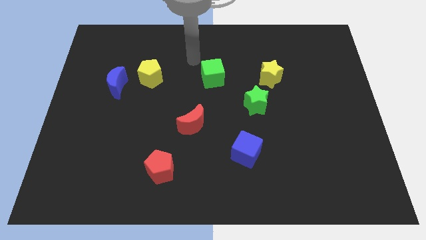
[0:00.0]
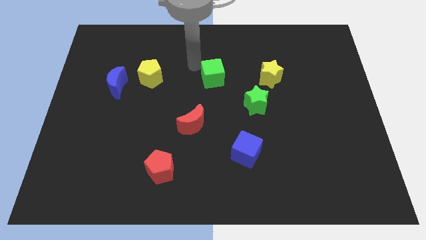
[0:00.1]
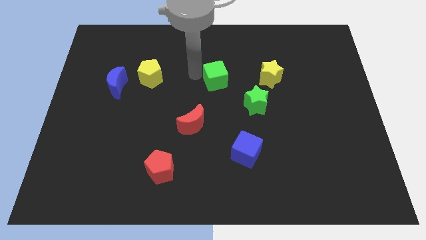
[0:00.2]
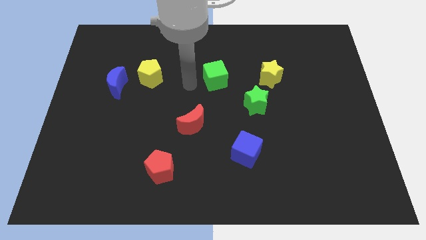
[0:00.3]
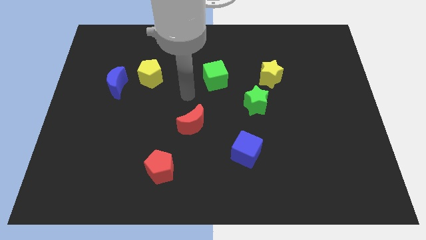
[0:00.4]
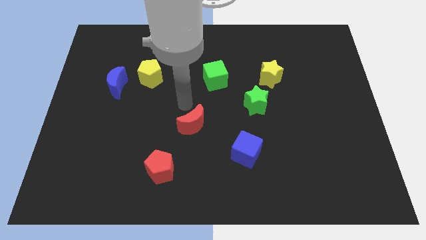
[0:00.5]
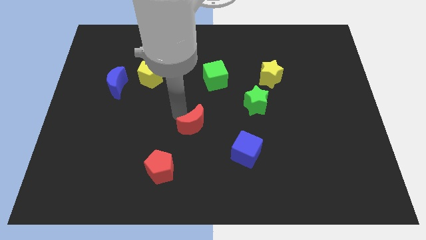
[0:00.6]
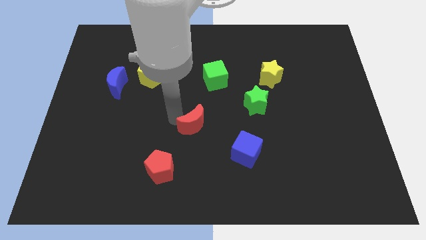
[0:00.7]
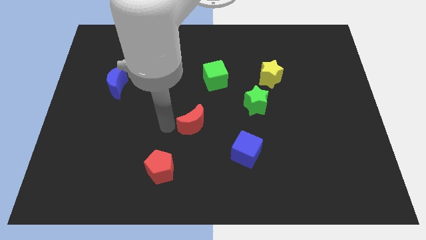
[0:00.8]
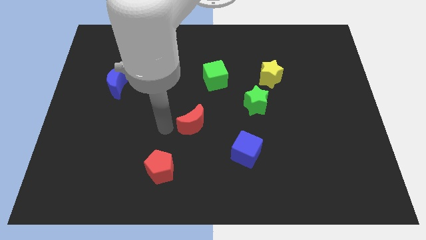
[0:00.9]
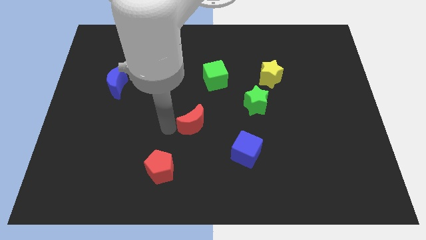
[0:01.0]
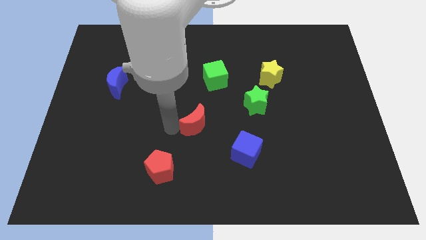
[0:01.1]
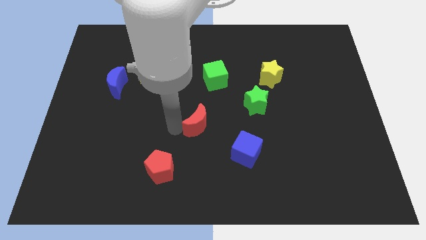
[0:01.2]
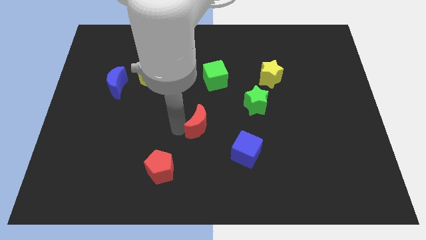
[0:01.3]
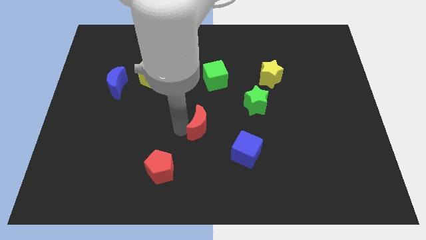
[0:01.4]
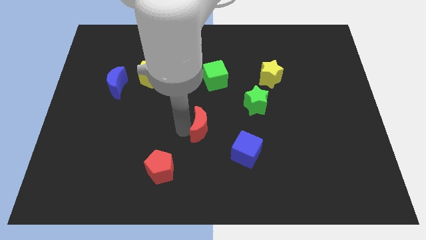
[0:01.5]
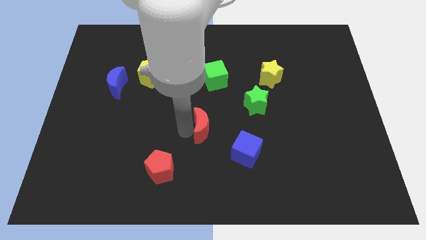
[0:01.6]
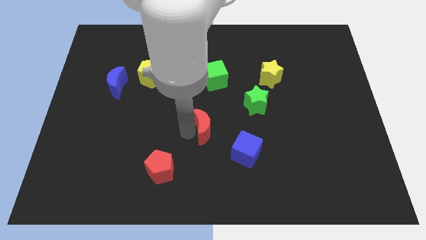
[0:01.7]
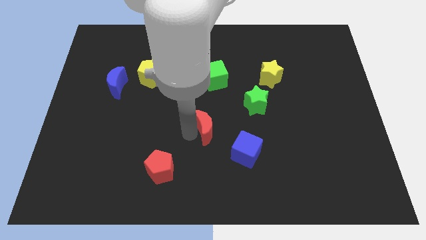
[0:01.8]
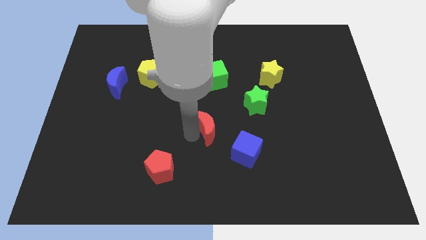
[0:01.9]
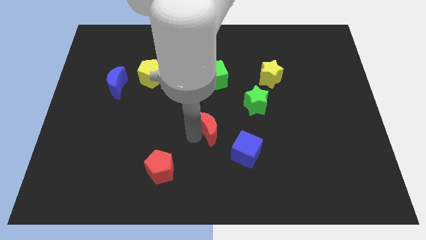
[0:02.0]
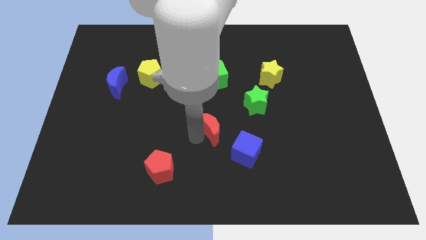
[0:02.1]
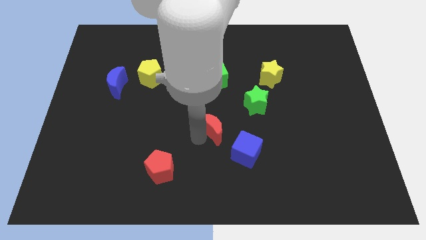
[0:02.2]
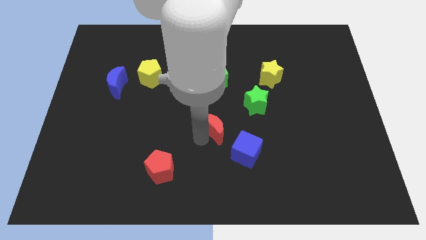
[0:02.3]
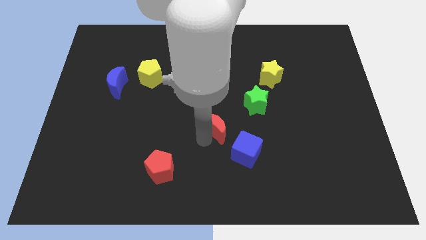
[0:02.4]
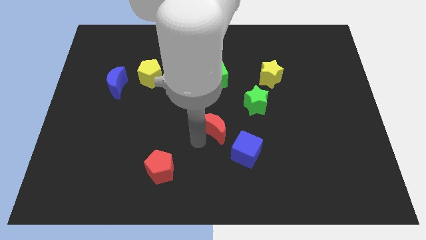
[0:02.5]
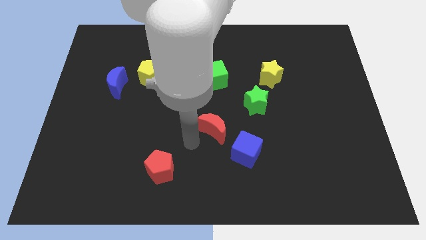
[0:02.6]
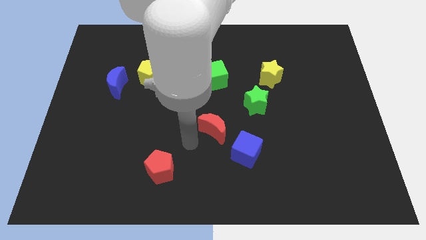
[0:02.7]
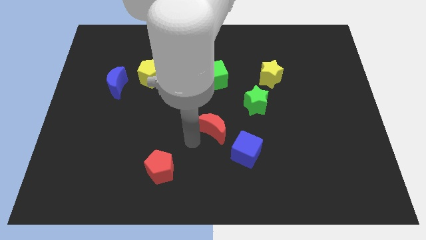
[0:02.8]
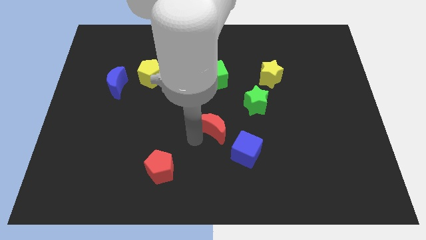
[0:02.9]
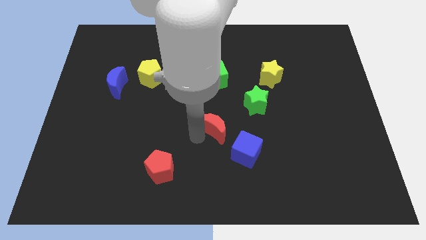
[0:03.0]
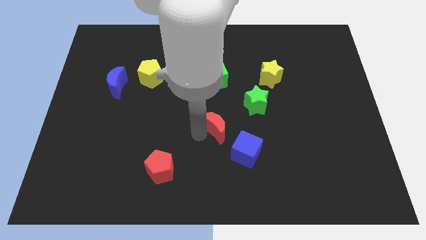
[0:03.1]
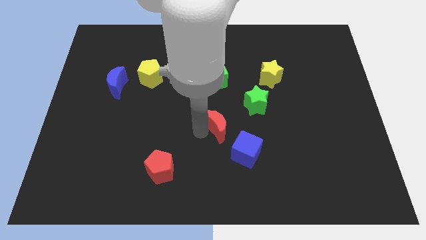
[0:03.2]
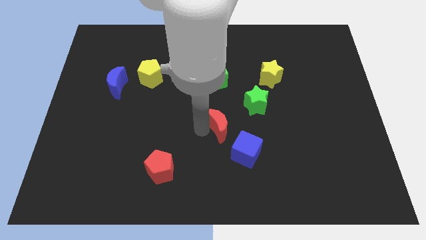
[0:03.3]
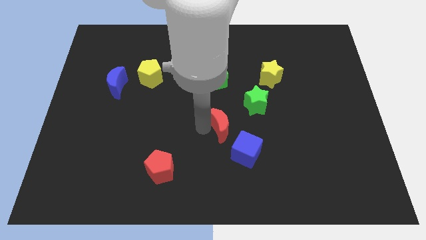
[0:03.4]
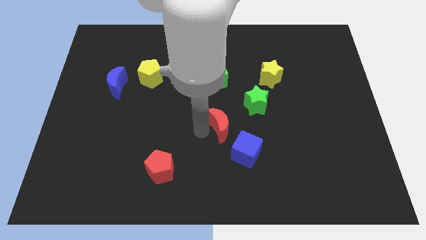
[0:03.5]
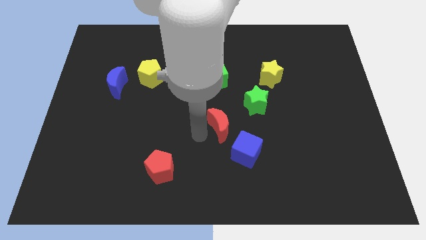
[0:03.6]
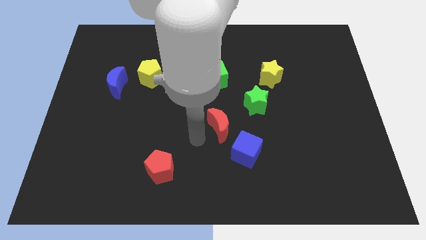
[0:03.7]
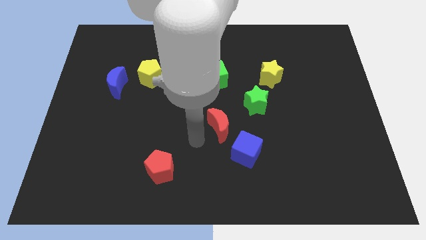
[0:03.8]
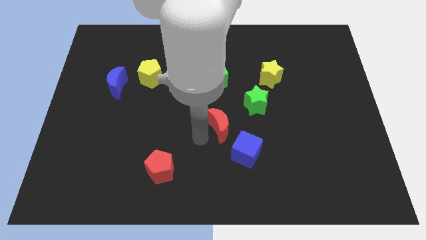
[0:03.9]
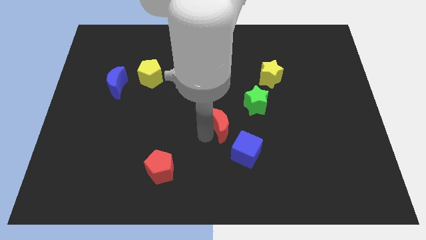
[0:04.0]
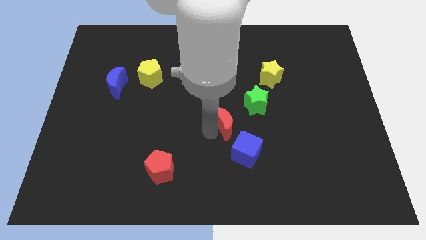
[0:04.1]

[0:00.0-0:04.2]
move the red moon a little bit to the right

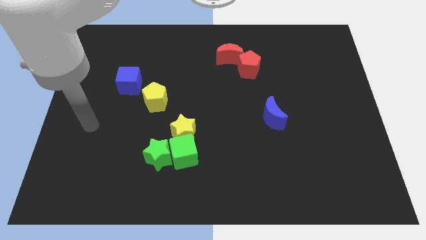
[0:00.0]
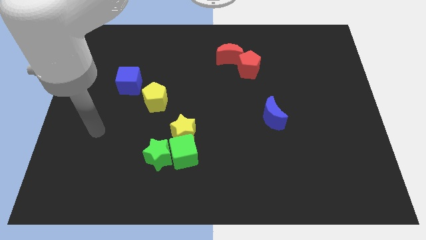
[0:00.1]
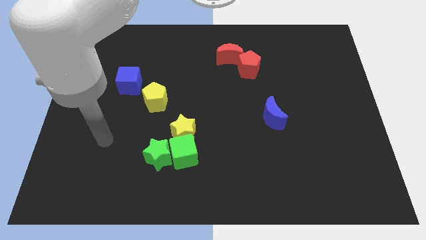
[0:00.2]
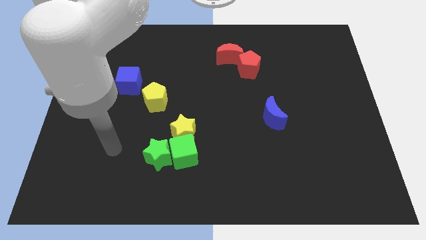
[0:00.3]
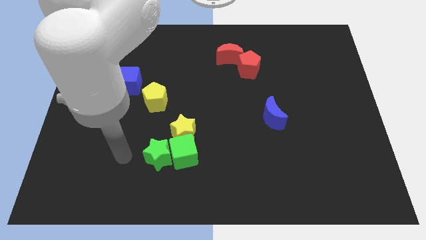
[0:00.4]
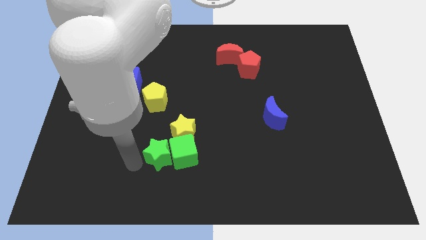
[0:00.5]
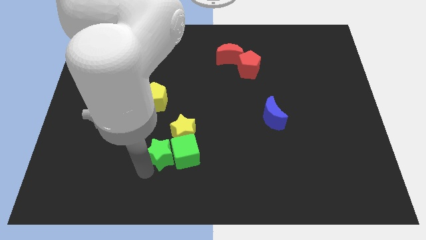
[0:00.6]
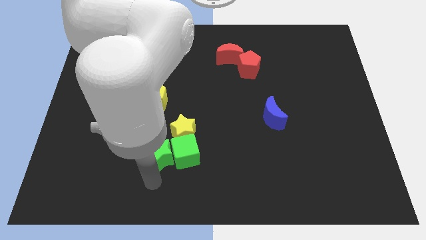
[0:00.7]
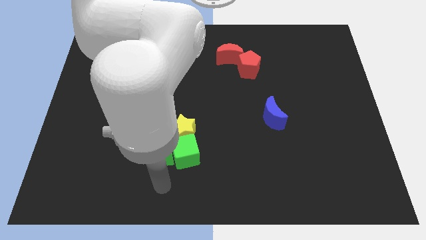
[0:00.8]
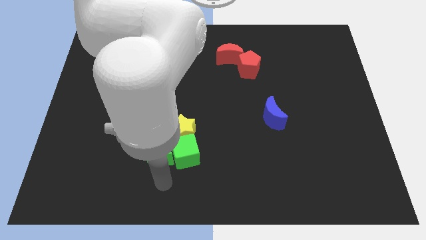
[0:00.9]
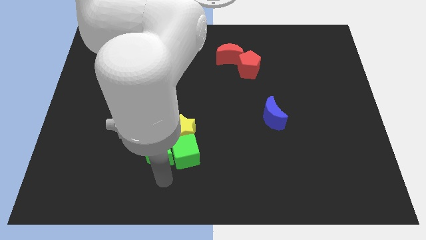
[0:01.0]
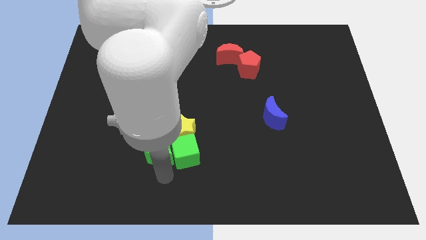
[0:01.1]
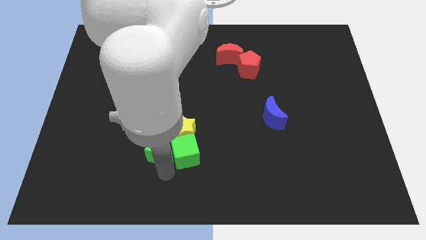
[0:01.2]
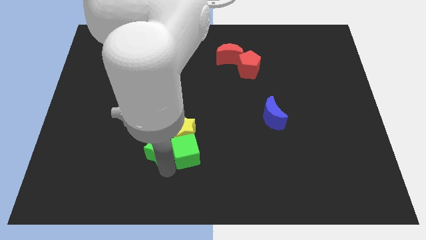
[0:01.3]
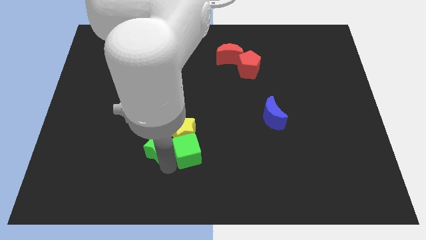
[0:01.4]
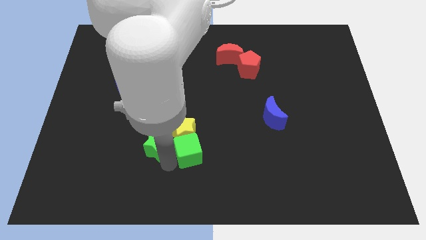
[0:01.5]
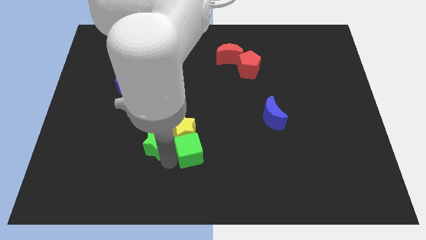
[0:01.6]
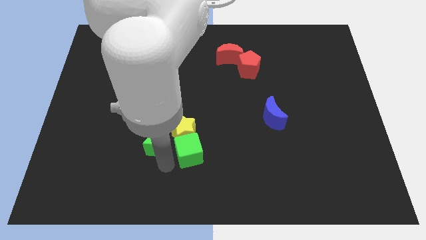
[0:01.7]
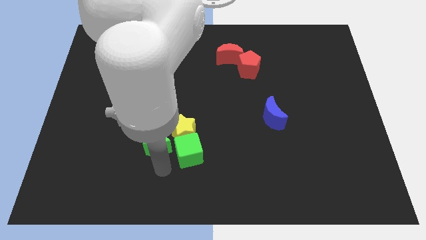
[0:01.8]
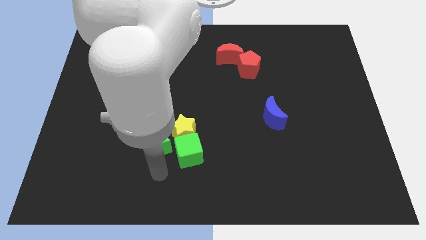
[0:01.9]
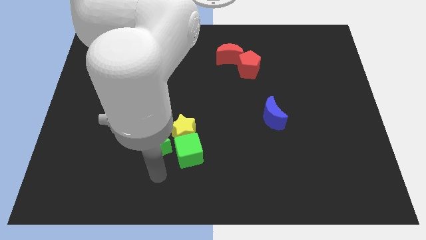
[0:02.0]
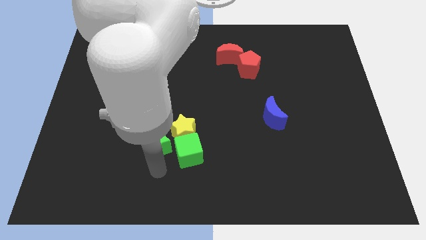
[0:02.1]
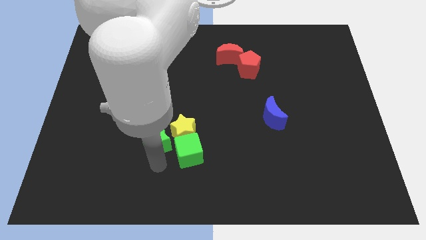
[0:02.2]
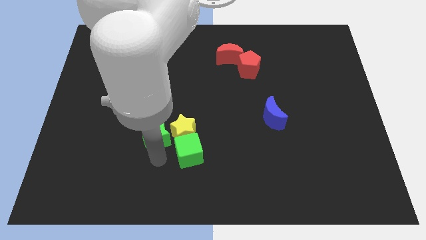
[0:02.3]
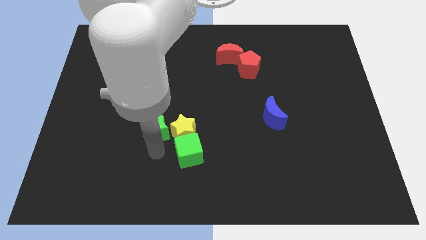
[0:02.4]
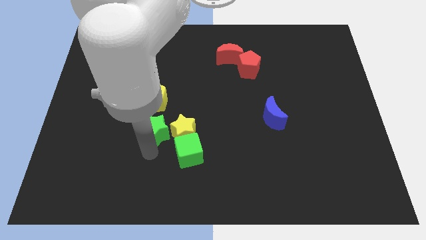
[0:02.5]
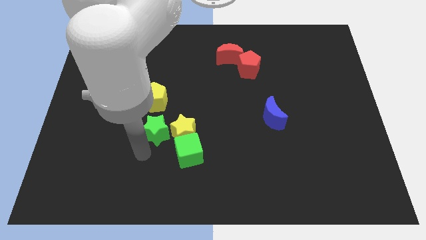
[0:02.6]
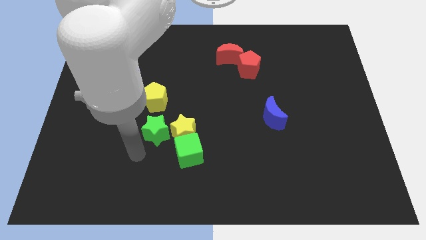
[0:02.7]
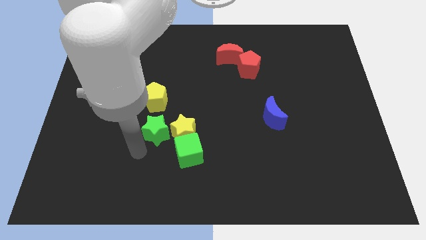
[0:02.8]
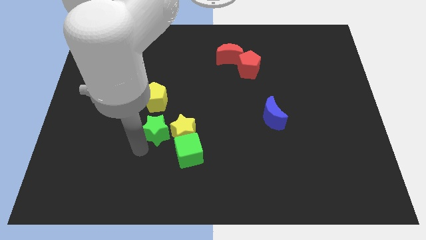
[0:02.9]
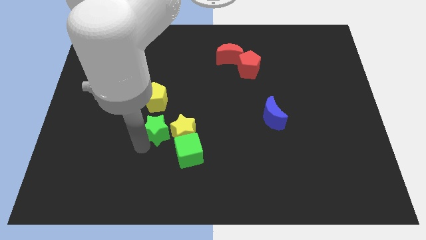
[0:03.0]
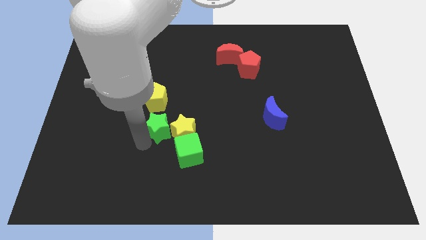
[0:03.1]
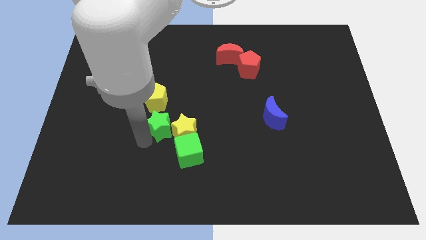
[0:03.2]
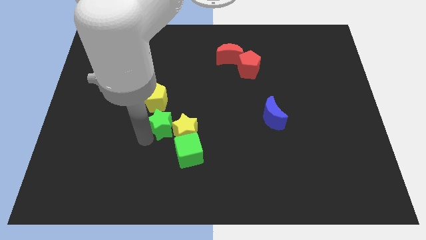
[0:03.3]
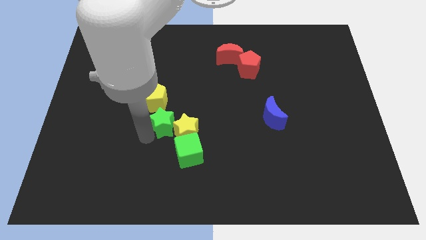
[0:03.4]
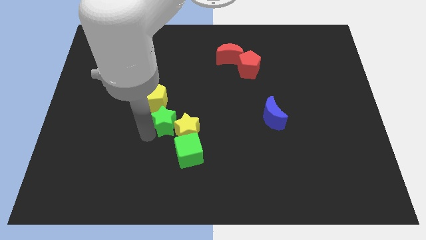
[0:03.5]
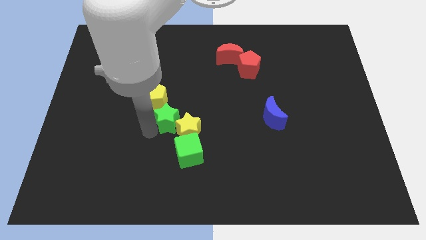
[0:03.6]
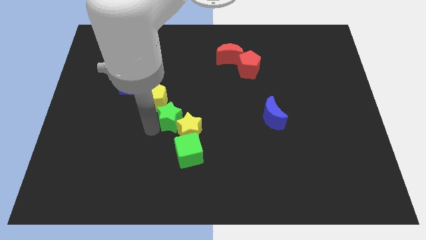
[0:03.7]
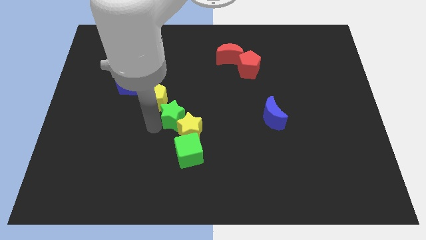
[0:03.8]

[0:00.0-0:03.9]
move the green star up and right somewhat

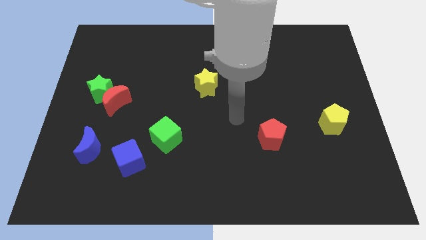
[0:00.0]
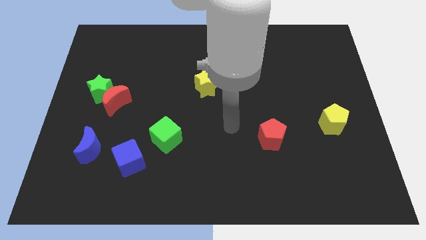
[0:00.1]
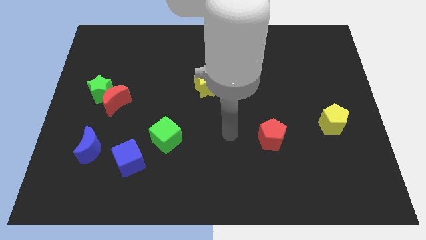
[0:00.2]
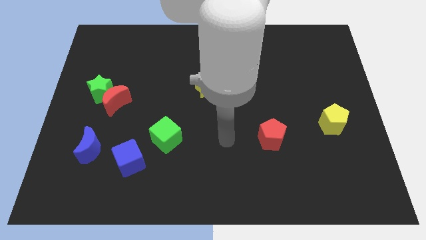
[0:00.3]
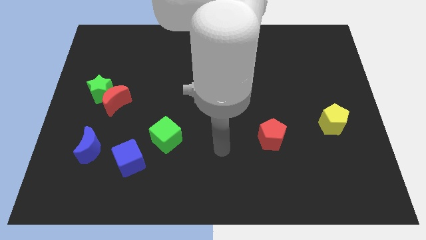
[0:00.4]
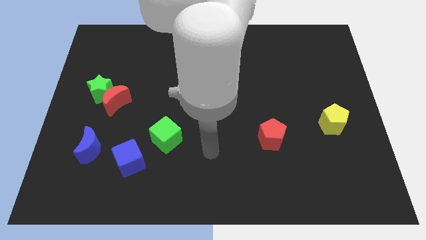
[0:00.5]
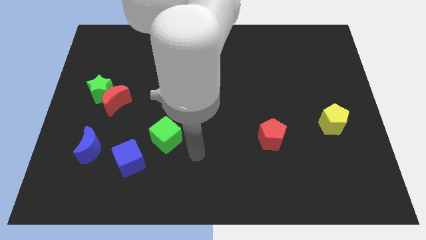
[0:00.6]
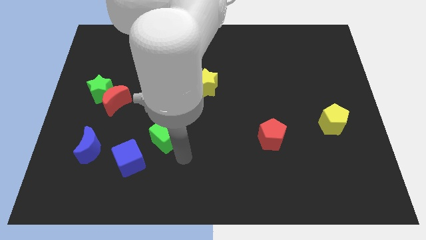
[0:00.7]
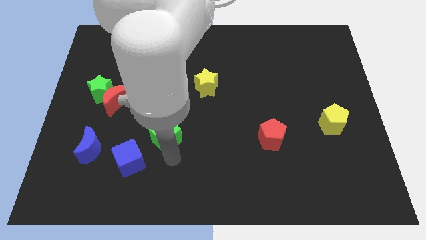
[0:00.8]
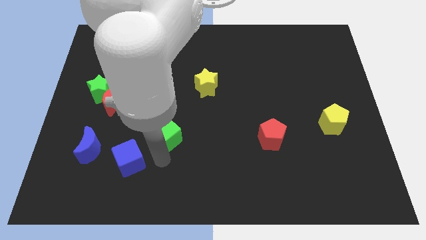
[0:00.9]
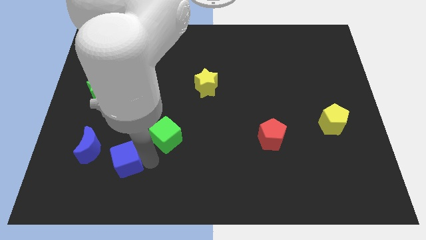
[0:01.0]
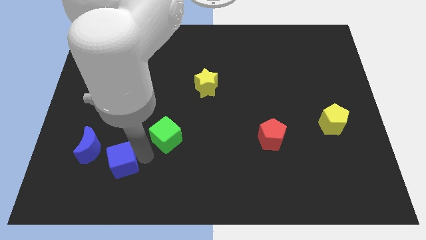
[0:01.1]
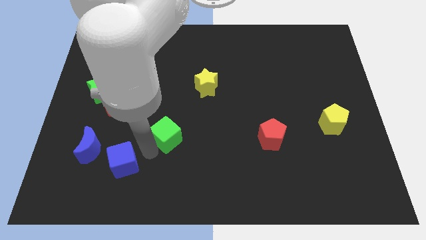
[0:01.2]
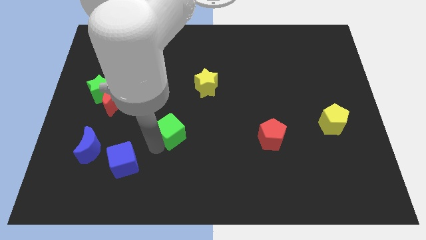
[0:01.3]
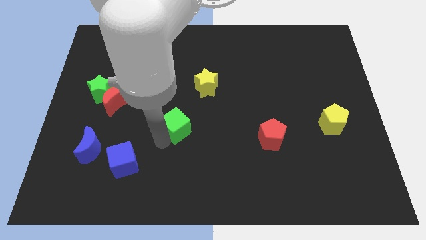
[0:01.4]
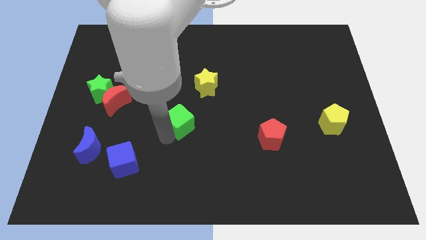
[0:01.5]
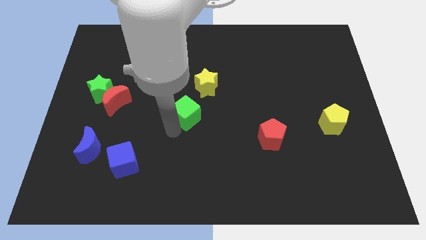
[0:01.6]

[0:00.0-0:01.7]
slide the green cube diagonally up and to the right somewhat
